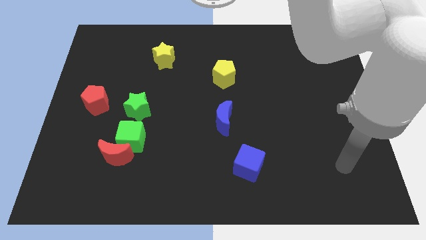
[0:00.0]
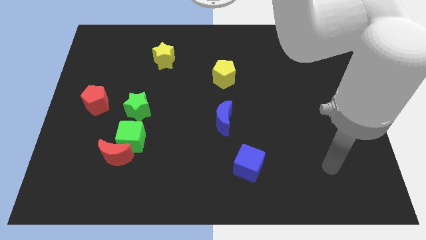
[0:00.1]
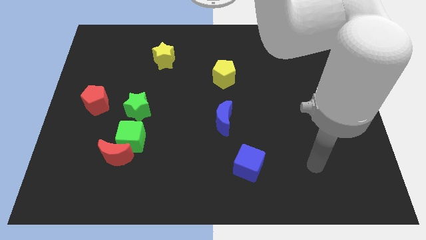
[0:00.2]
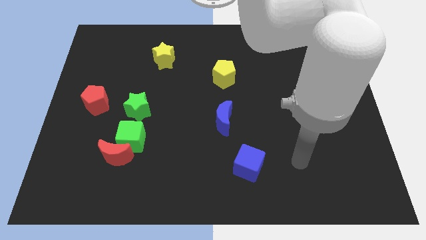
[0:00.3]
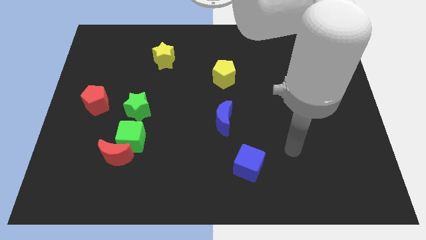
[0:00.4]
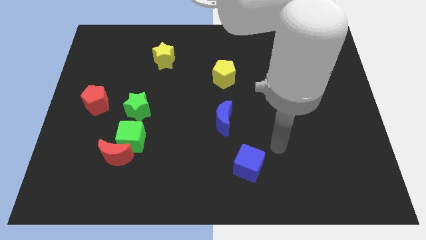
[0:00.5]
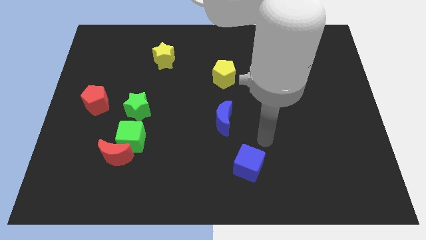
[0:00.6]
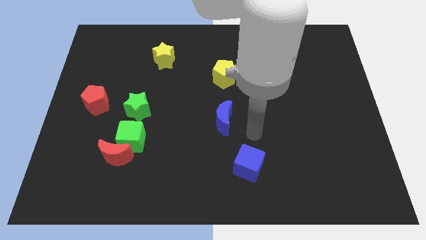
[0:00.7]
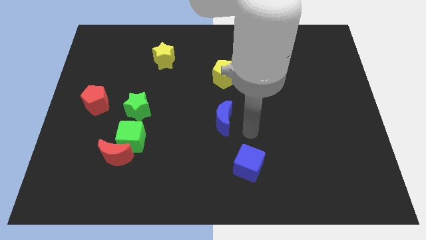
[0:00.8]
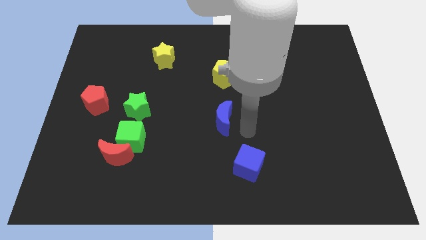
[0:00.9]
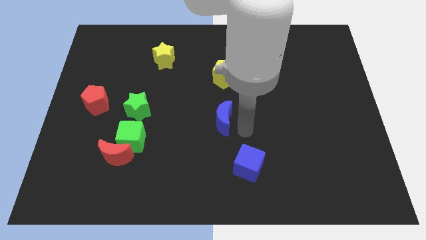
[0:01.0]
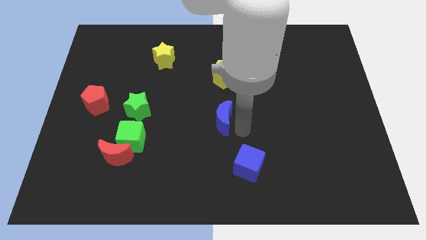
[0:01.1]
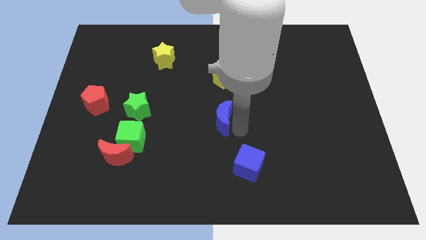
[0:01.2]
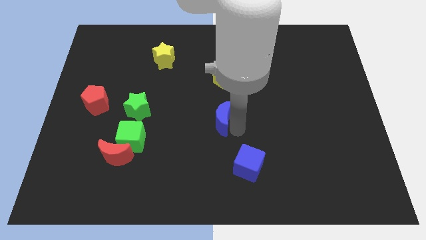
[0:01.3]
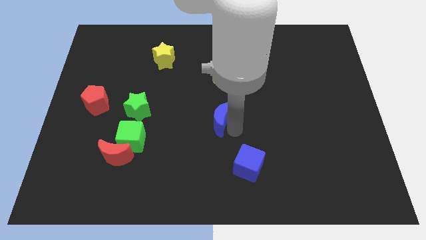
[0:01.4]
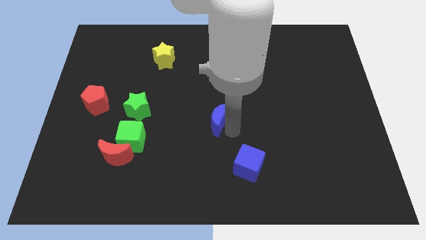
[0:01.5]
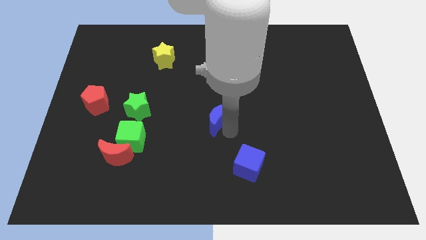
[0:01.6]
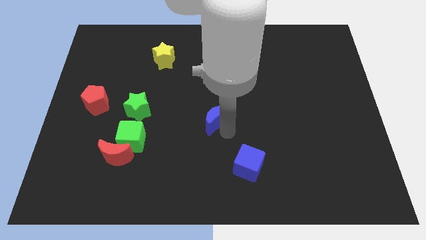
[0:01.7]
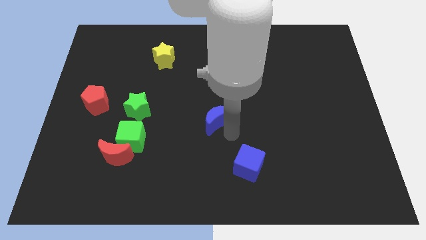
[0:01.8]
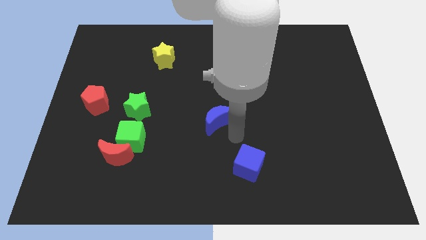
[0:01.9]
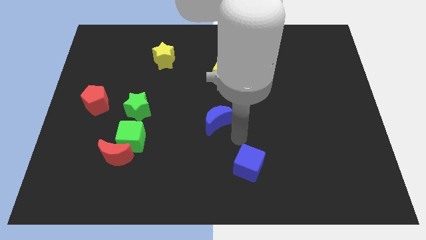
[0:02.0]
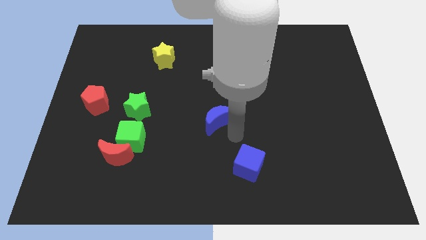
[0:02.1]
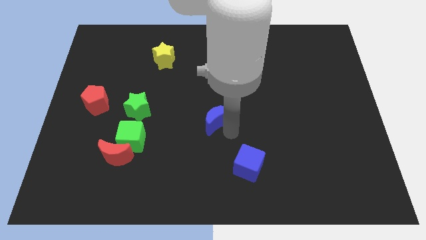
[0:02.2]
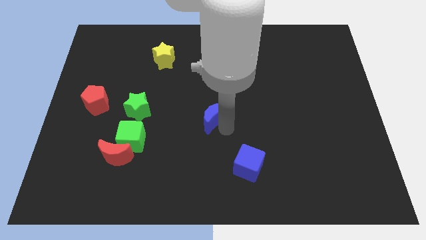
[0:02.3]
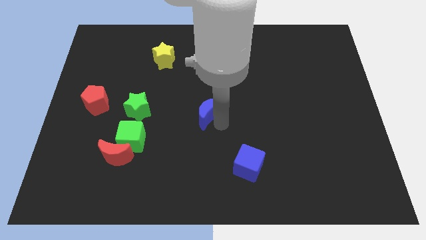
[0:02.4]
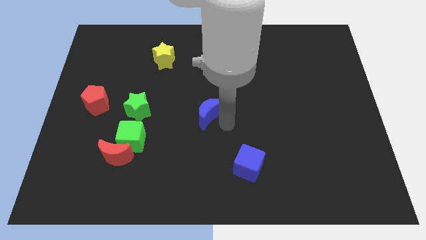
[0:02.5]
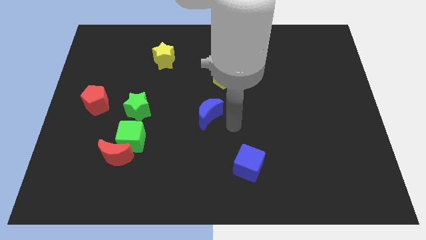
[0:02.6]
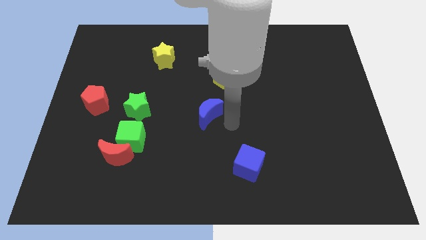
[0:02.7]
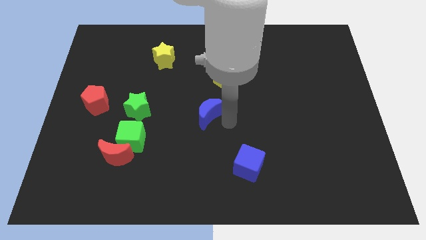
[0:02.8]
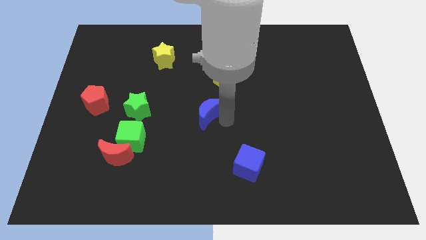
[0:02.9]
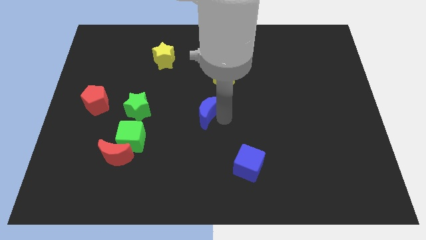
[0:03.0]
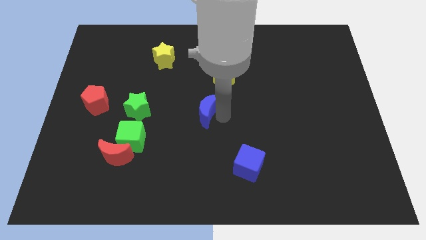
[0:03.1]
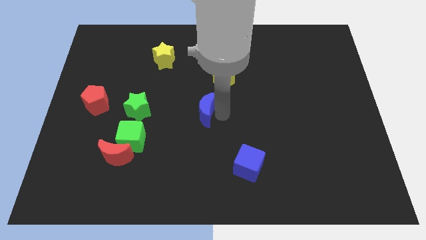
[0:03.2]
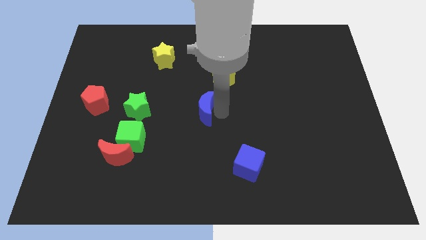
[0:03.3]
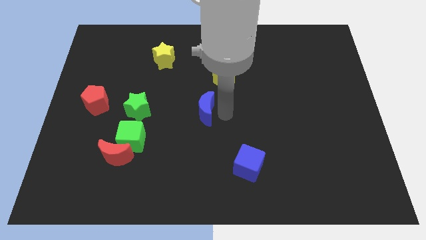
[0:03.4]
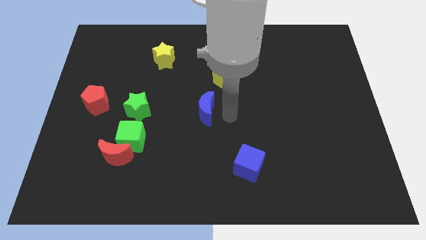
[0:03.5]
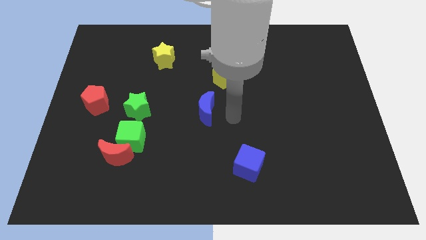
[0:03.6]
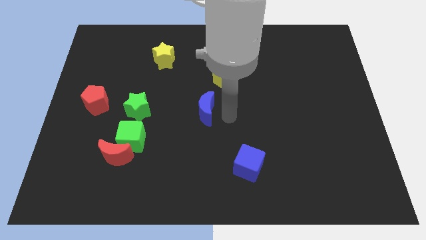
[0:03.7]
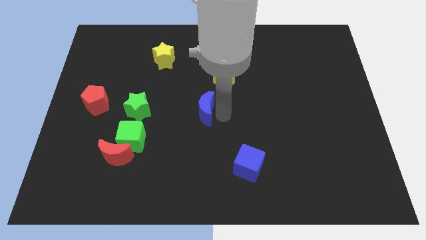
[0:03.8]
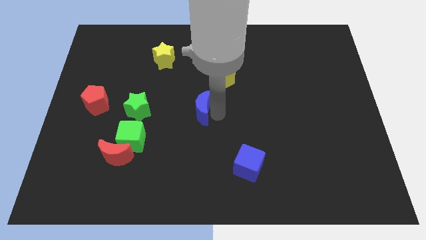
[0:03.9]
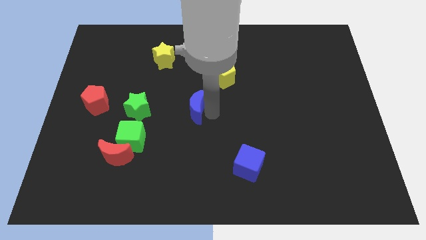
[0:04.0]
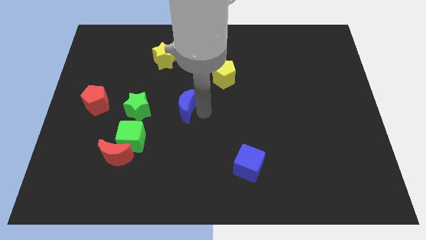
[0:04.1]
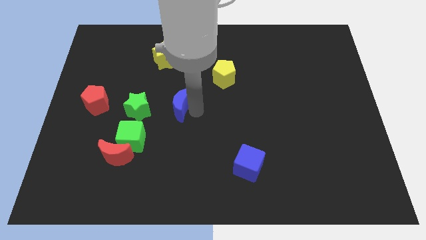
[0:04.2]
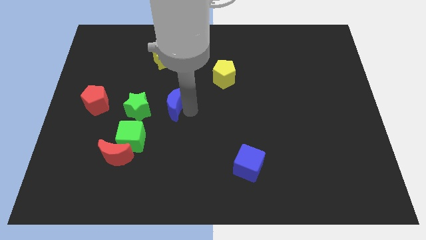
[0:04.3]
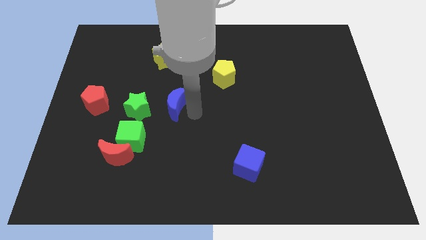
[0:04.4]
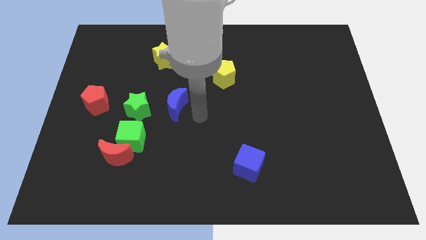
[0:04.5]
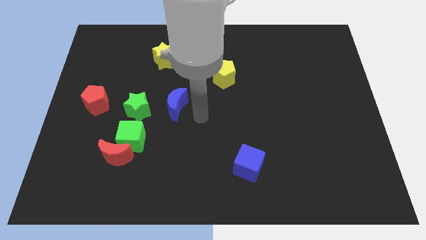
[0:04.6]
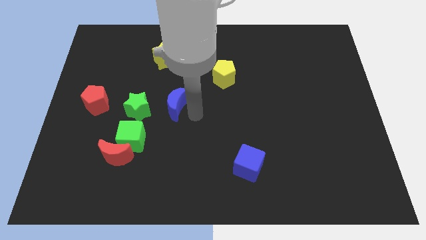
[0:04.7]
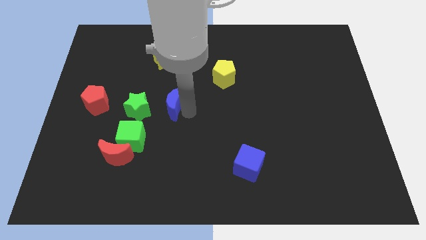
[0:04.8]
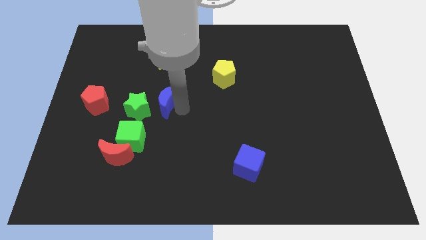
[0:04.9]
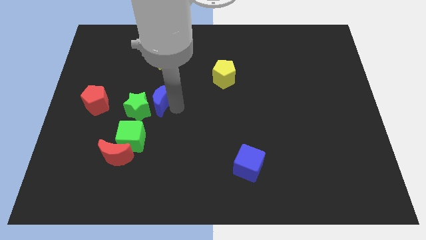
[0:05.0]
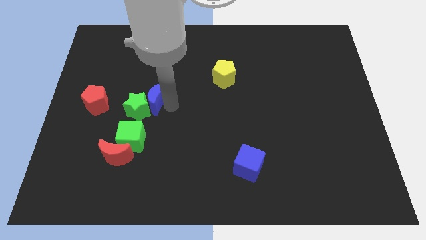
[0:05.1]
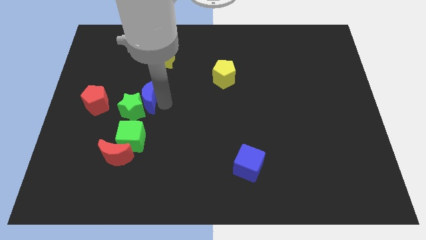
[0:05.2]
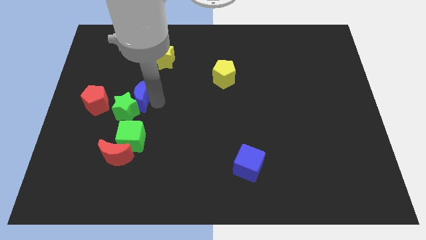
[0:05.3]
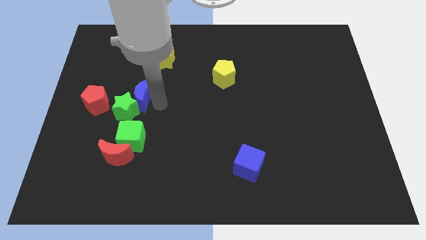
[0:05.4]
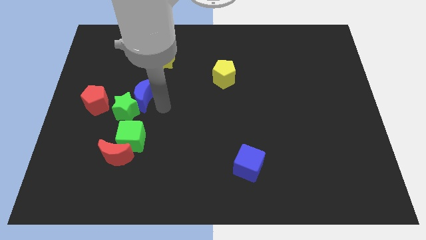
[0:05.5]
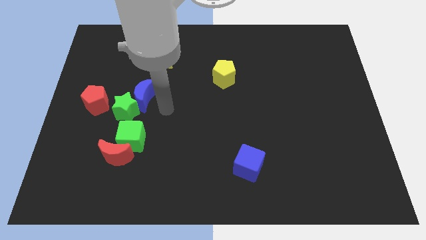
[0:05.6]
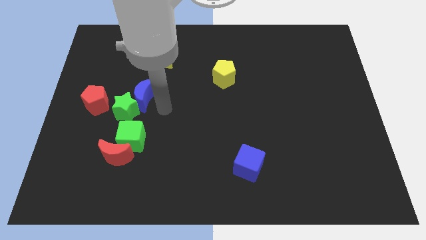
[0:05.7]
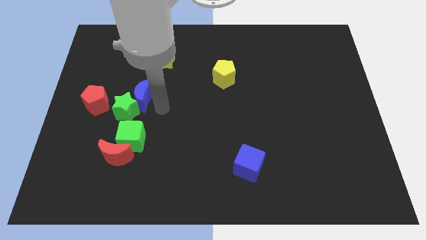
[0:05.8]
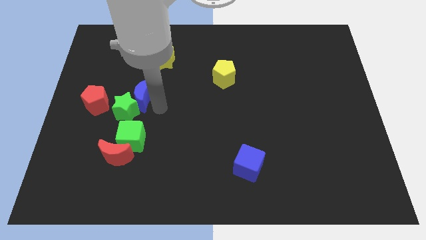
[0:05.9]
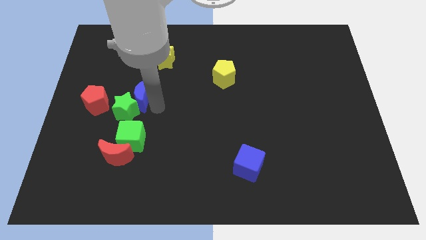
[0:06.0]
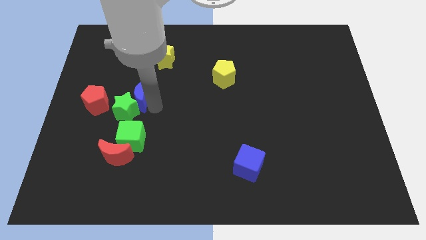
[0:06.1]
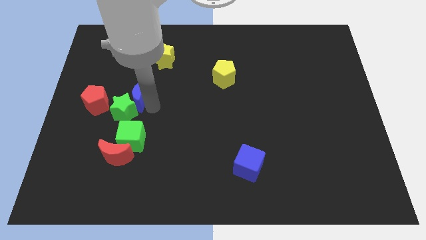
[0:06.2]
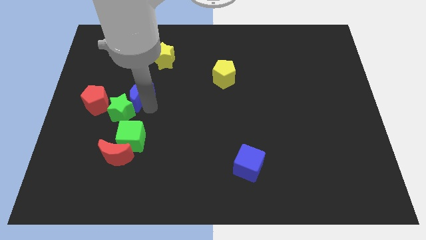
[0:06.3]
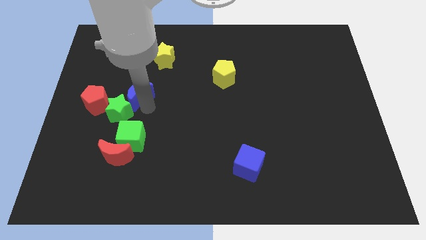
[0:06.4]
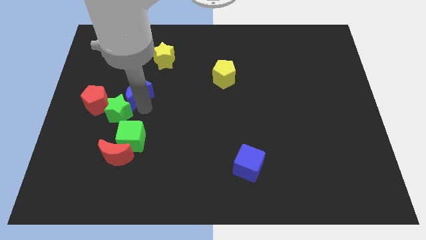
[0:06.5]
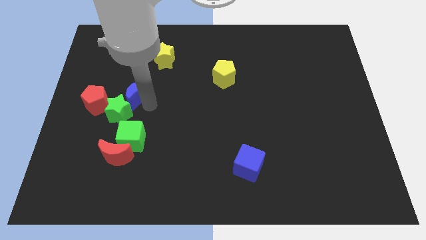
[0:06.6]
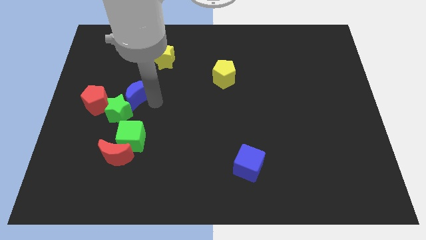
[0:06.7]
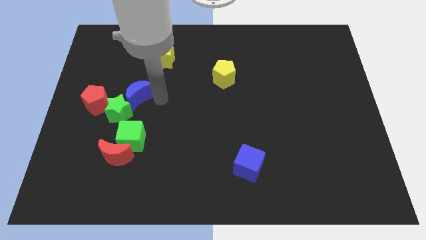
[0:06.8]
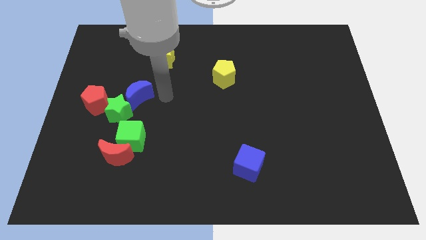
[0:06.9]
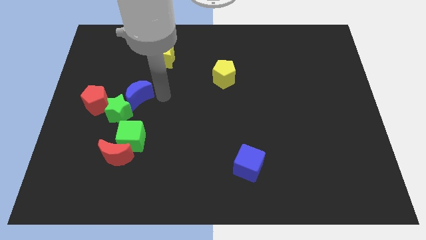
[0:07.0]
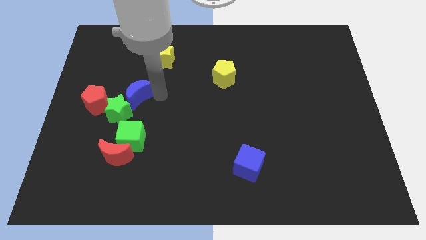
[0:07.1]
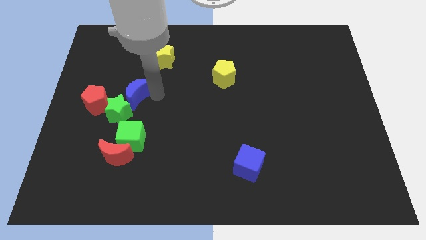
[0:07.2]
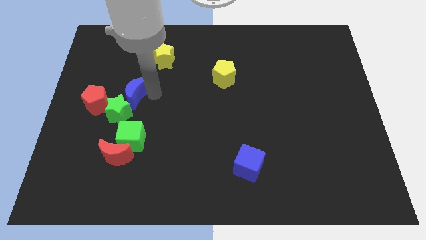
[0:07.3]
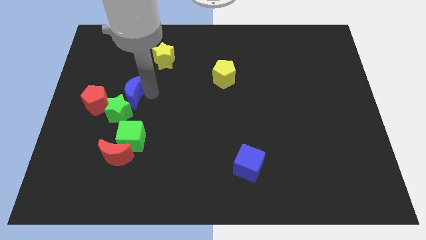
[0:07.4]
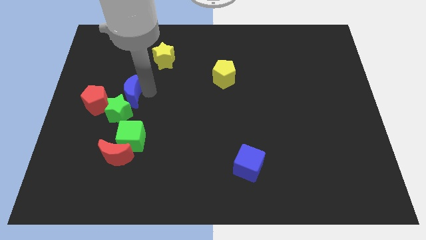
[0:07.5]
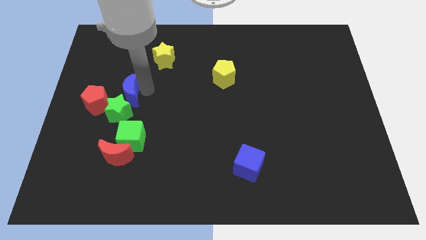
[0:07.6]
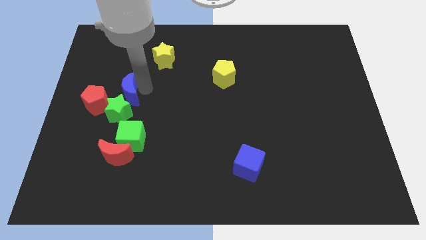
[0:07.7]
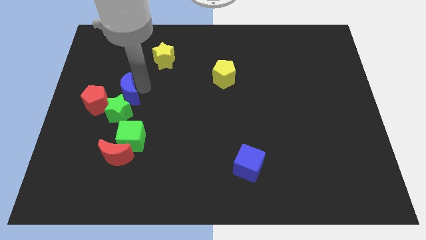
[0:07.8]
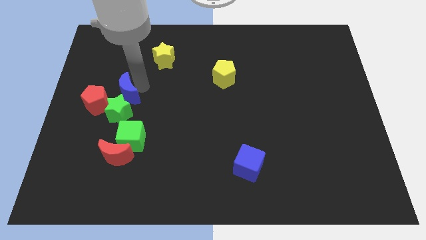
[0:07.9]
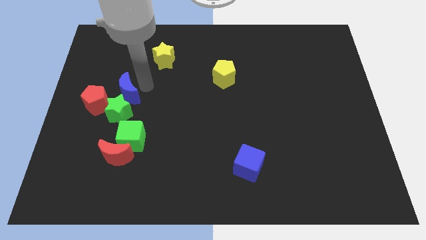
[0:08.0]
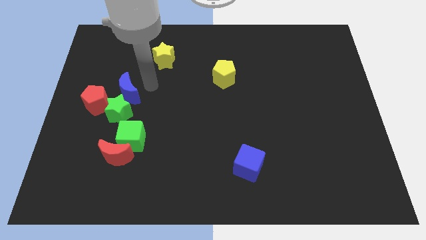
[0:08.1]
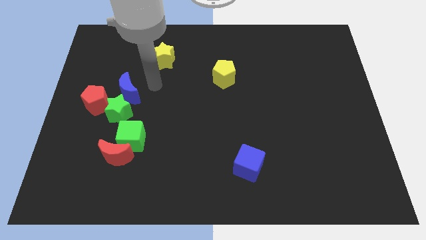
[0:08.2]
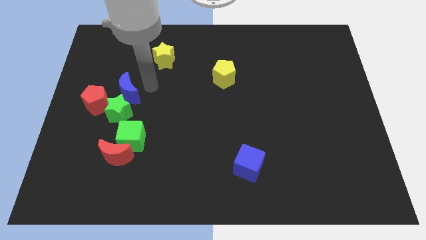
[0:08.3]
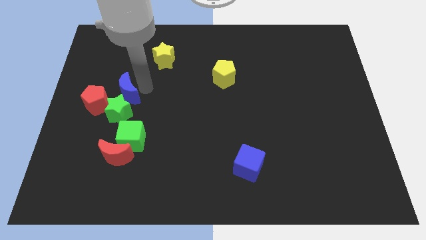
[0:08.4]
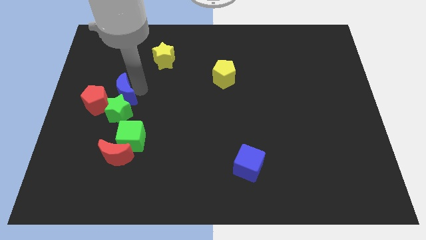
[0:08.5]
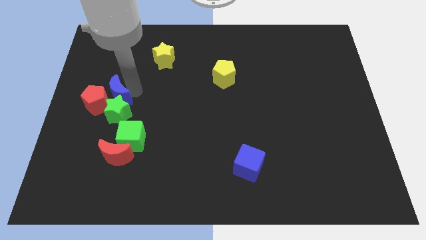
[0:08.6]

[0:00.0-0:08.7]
push the blue moon to the red pentagon
